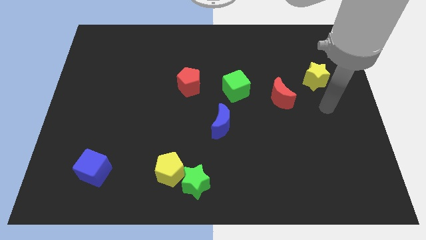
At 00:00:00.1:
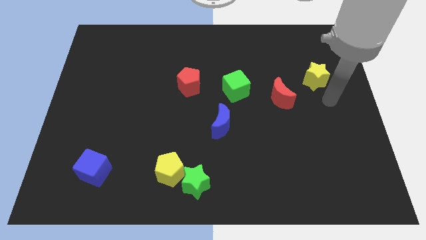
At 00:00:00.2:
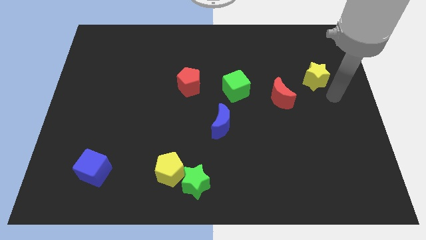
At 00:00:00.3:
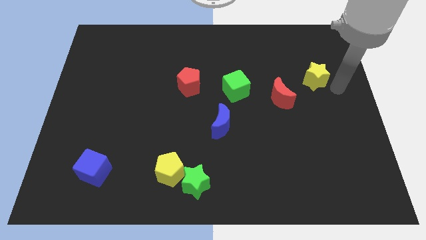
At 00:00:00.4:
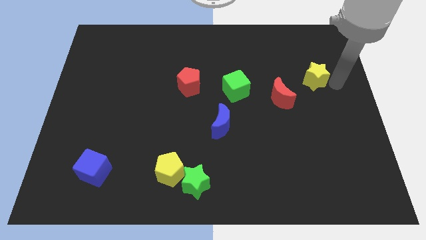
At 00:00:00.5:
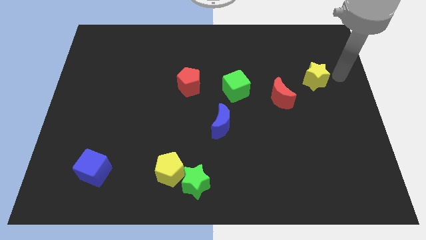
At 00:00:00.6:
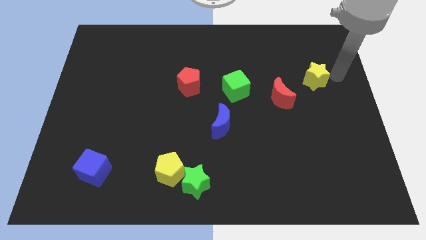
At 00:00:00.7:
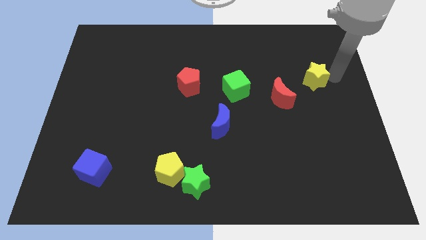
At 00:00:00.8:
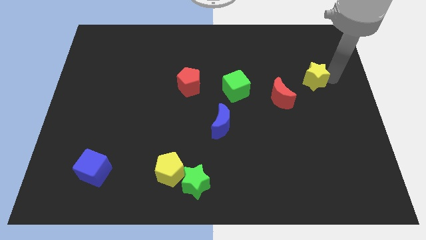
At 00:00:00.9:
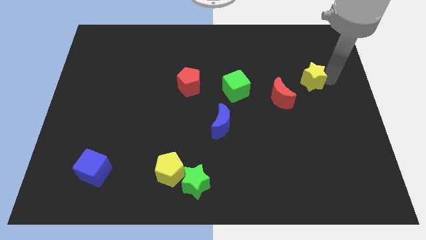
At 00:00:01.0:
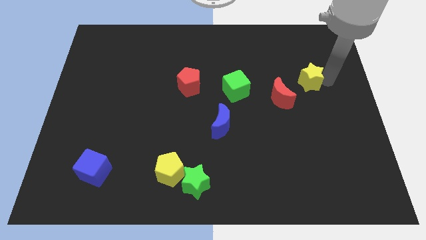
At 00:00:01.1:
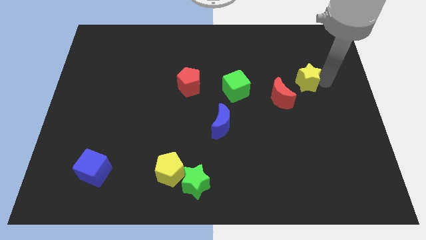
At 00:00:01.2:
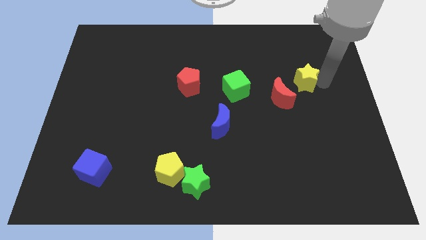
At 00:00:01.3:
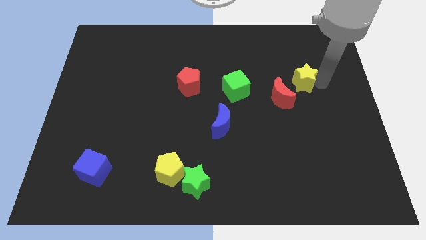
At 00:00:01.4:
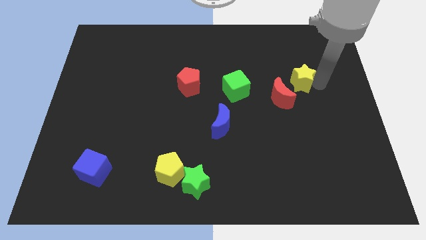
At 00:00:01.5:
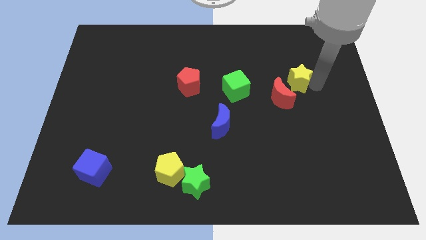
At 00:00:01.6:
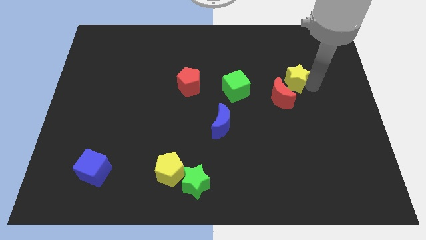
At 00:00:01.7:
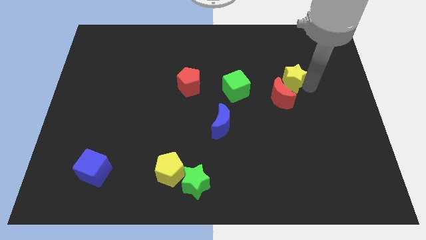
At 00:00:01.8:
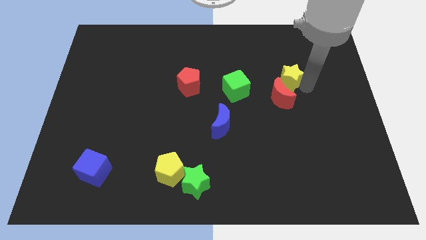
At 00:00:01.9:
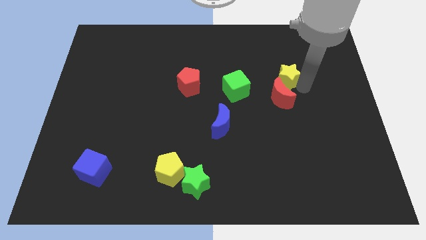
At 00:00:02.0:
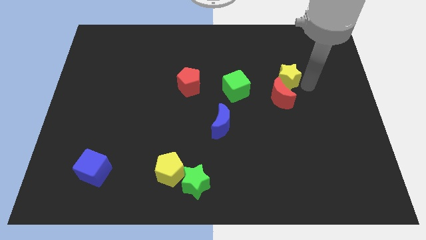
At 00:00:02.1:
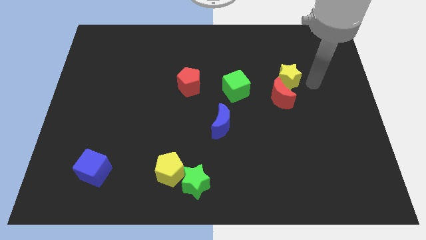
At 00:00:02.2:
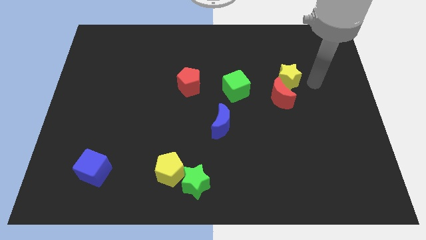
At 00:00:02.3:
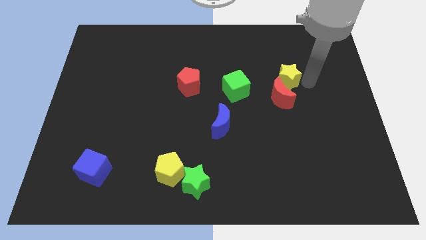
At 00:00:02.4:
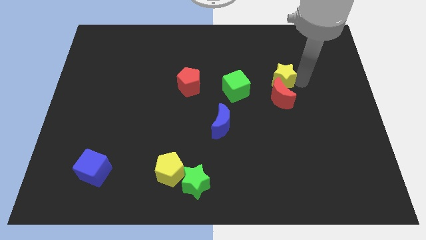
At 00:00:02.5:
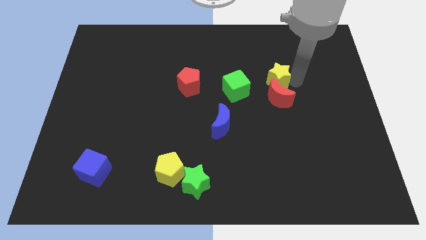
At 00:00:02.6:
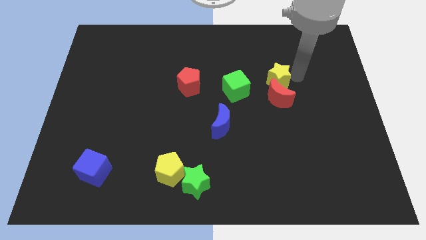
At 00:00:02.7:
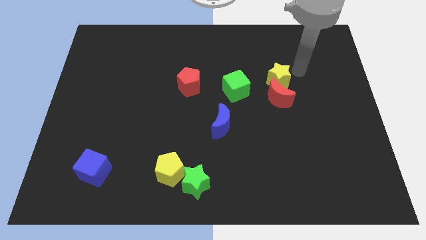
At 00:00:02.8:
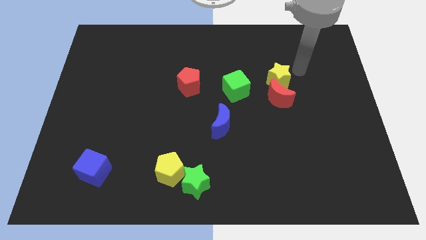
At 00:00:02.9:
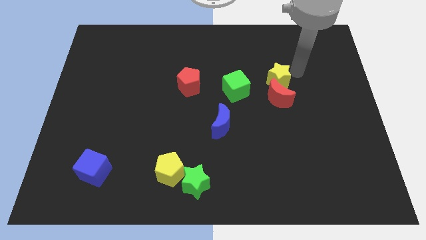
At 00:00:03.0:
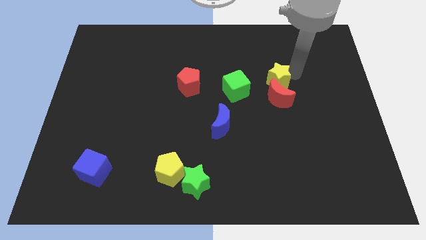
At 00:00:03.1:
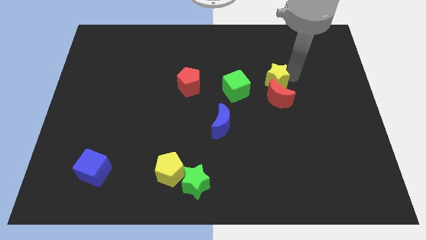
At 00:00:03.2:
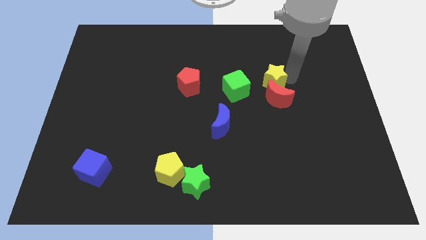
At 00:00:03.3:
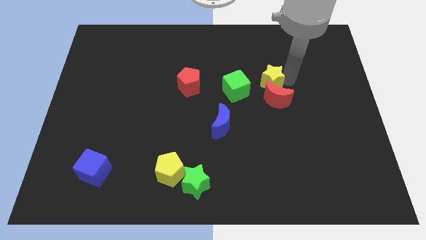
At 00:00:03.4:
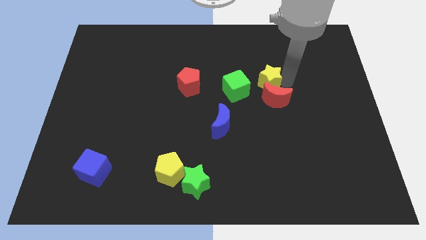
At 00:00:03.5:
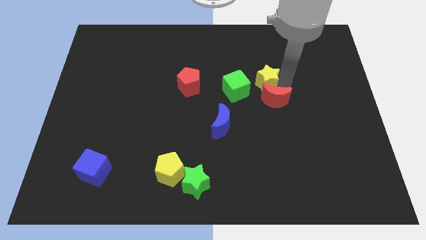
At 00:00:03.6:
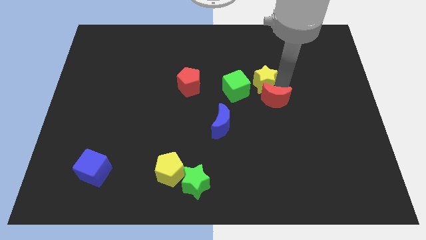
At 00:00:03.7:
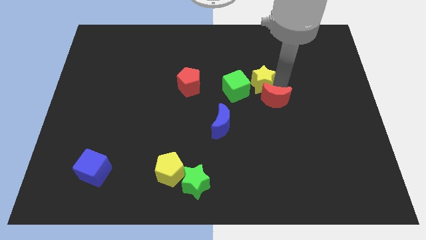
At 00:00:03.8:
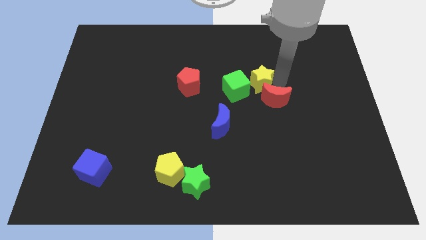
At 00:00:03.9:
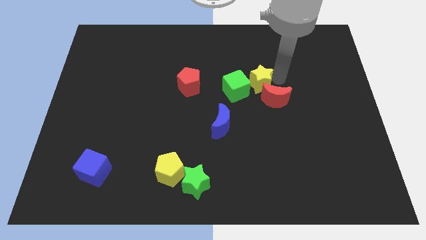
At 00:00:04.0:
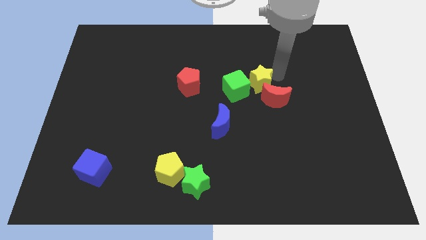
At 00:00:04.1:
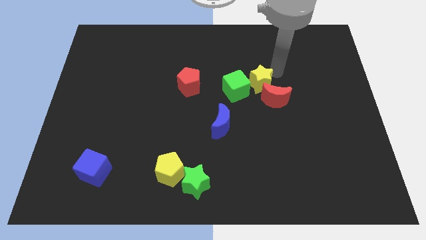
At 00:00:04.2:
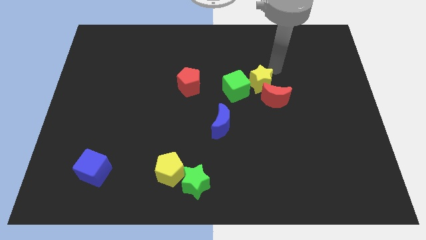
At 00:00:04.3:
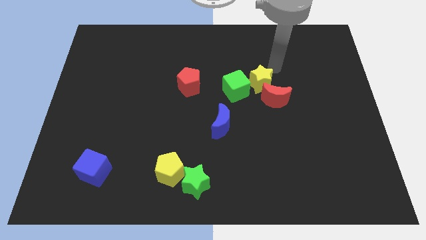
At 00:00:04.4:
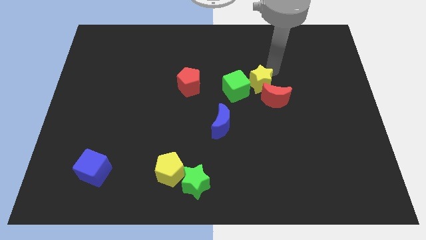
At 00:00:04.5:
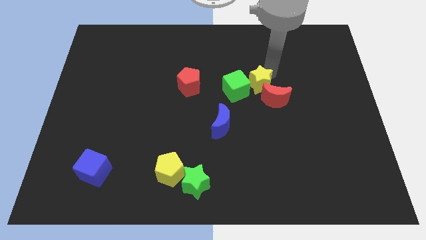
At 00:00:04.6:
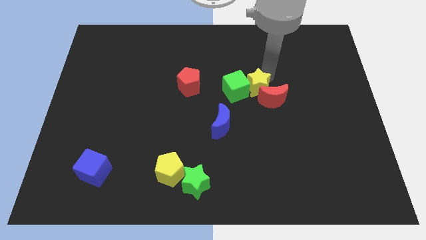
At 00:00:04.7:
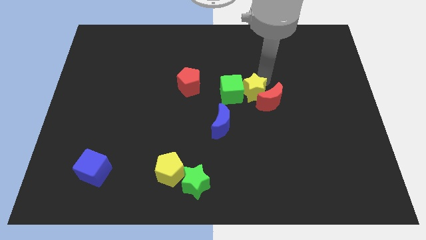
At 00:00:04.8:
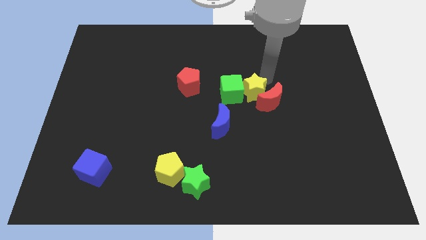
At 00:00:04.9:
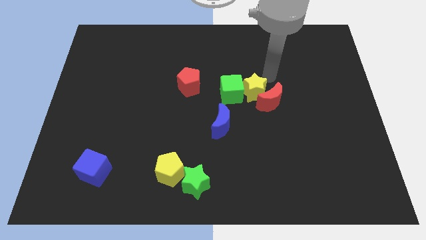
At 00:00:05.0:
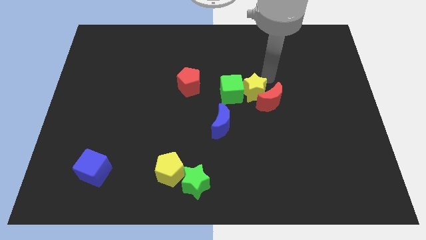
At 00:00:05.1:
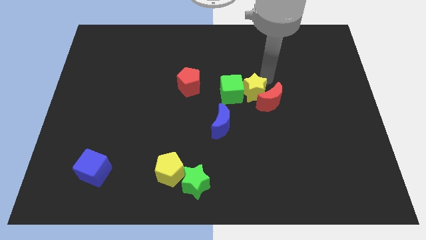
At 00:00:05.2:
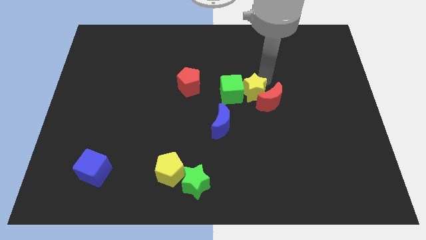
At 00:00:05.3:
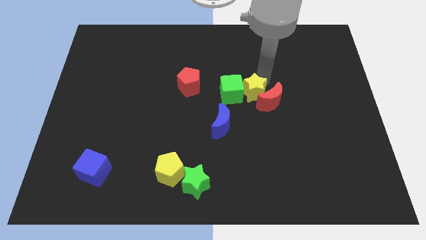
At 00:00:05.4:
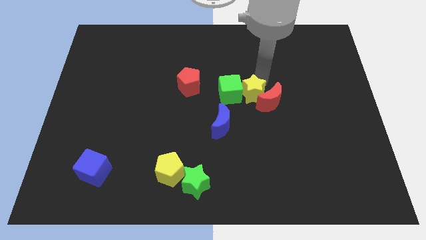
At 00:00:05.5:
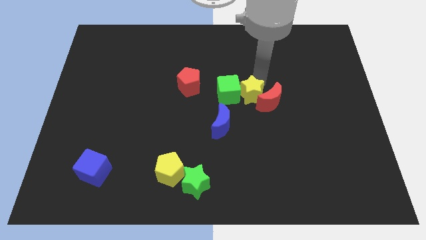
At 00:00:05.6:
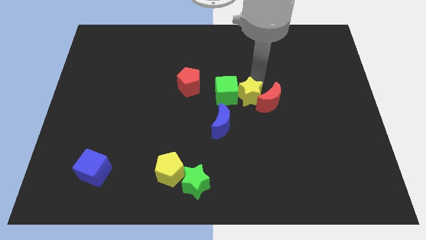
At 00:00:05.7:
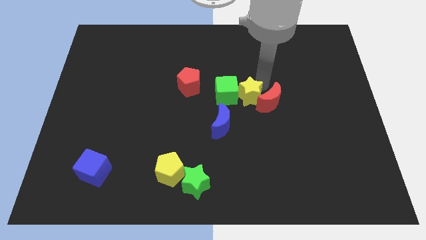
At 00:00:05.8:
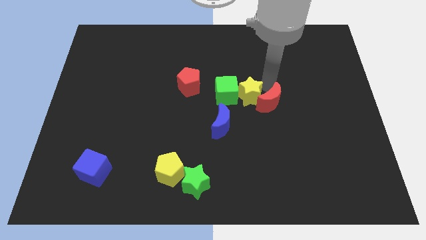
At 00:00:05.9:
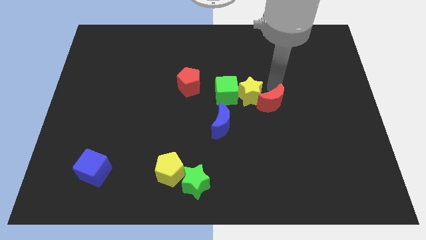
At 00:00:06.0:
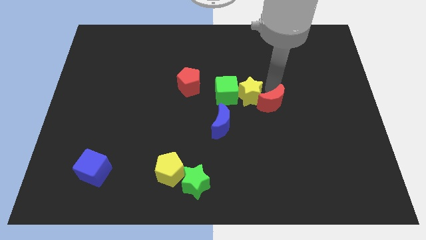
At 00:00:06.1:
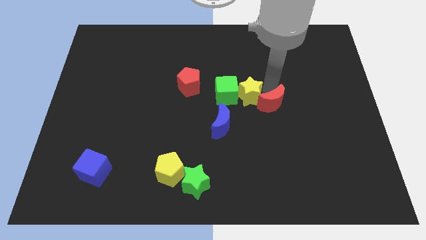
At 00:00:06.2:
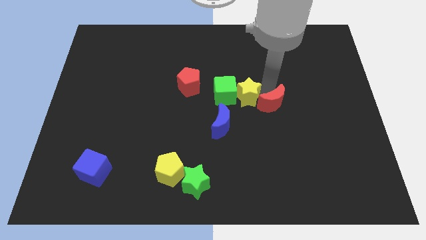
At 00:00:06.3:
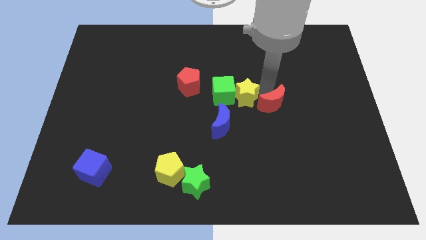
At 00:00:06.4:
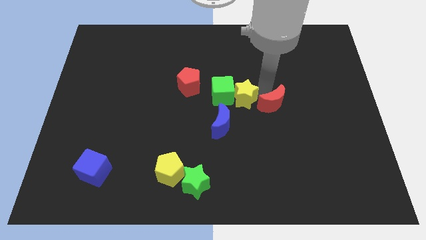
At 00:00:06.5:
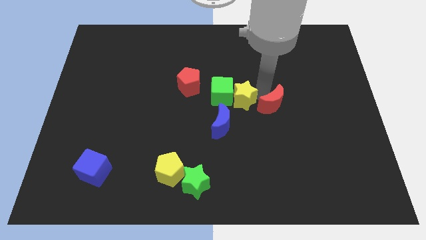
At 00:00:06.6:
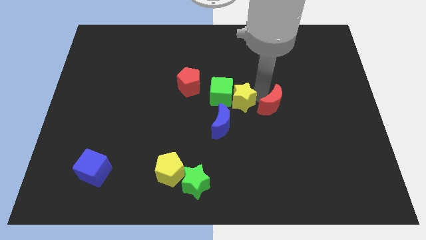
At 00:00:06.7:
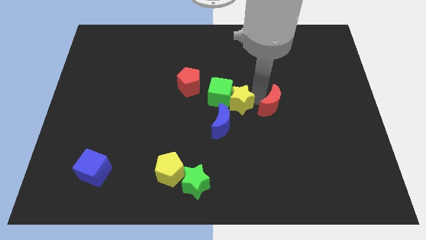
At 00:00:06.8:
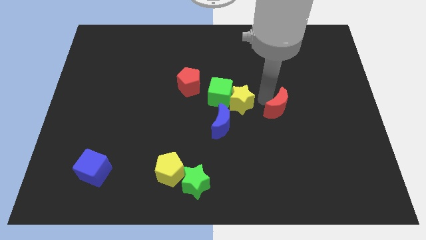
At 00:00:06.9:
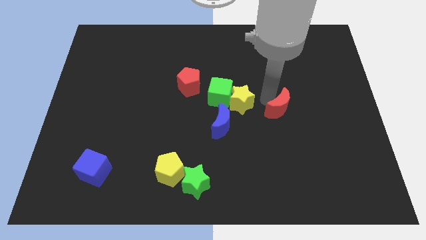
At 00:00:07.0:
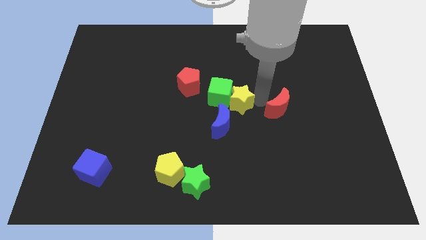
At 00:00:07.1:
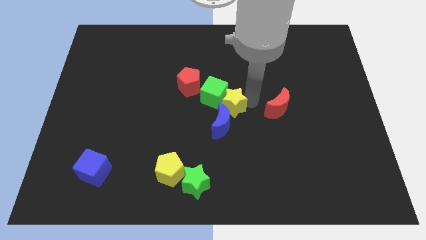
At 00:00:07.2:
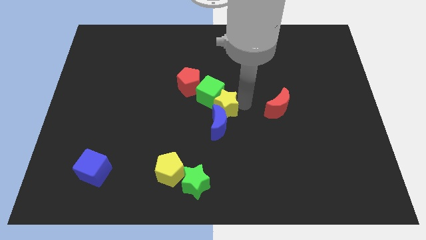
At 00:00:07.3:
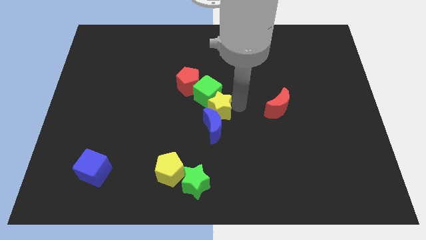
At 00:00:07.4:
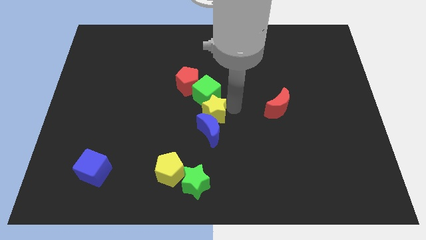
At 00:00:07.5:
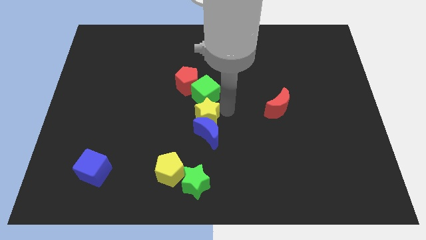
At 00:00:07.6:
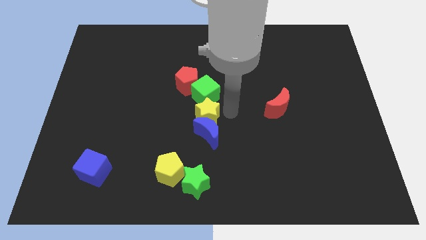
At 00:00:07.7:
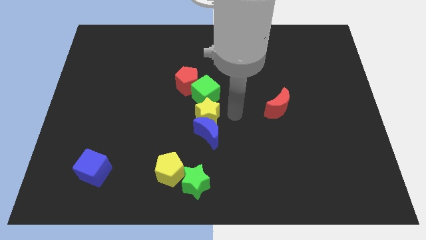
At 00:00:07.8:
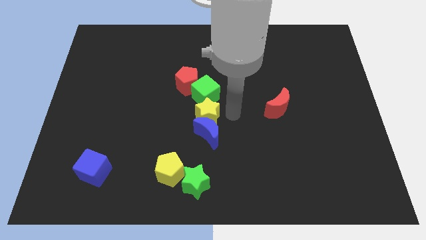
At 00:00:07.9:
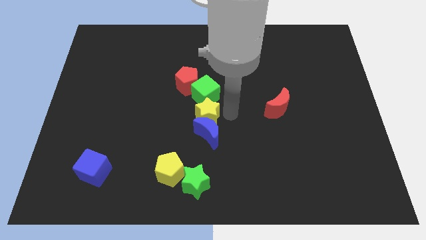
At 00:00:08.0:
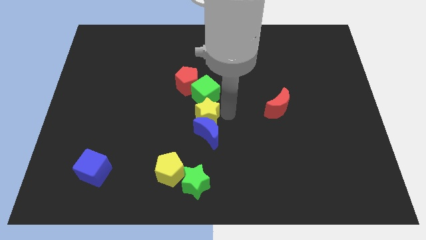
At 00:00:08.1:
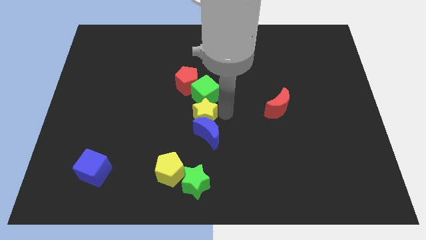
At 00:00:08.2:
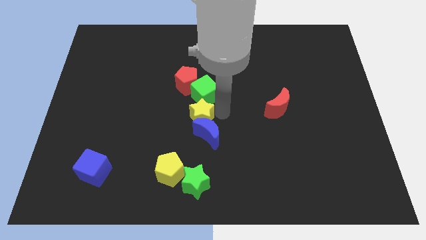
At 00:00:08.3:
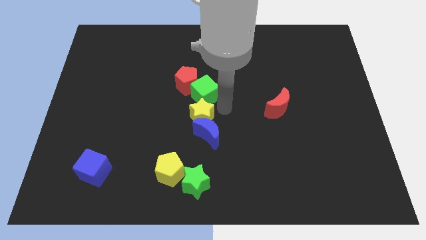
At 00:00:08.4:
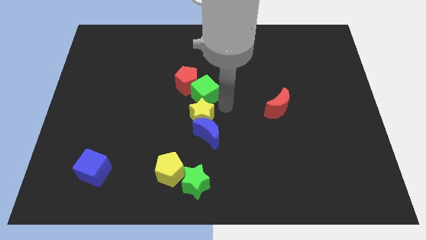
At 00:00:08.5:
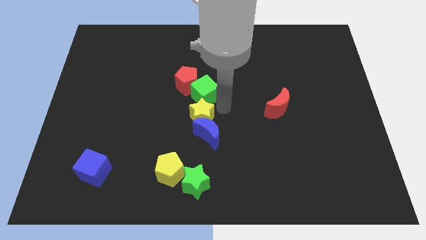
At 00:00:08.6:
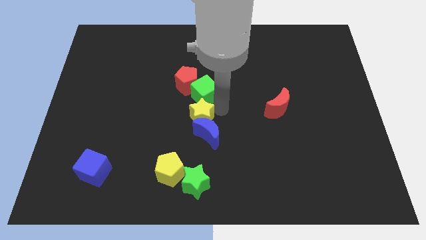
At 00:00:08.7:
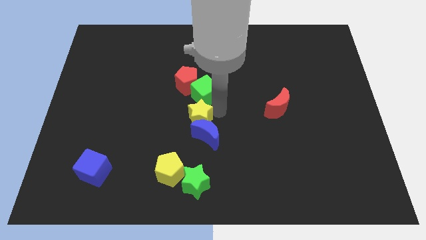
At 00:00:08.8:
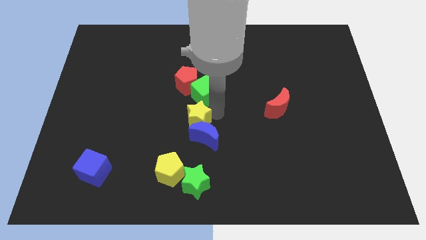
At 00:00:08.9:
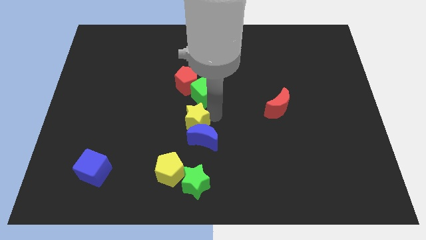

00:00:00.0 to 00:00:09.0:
slide the yellow star to the top of the yellow pentagon
